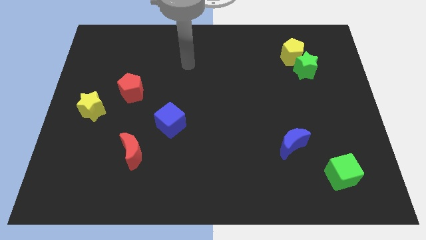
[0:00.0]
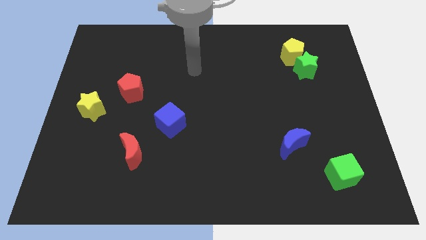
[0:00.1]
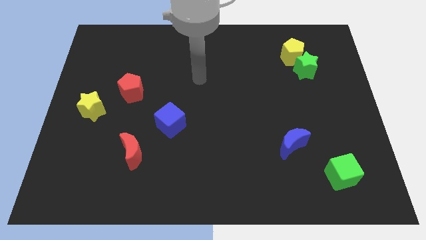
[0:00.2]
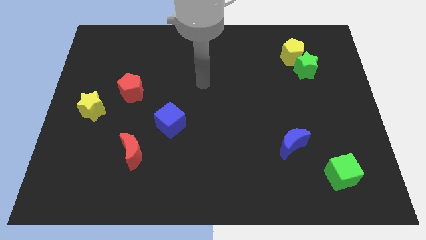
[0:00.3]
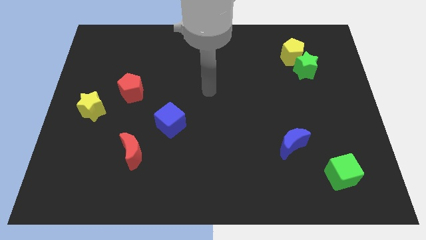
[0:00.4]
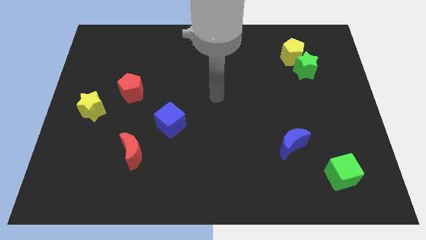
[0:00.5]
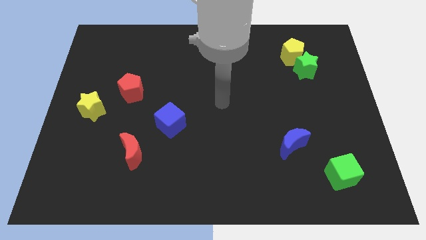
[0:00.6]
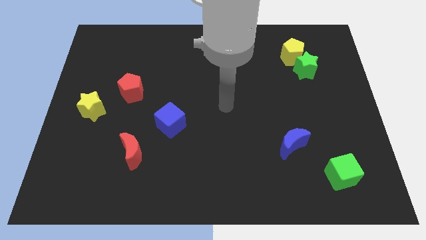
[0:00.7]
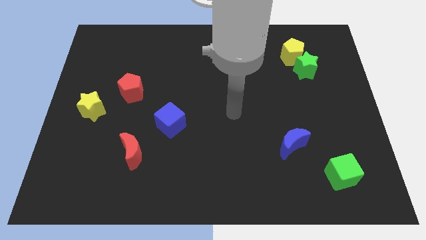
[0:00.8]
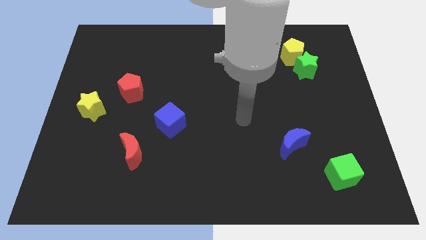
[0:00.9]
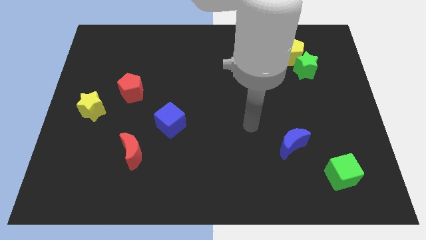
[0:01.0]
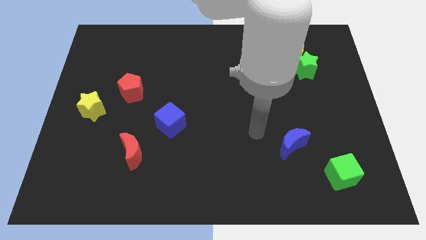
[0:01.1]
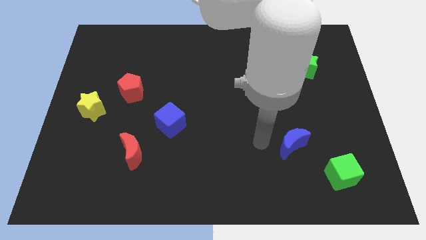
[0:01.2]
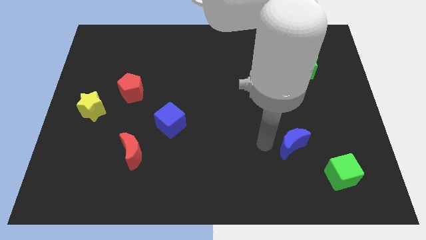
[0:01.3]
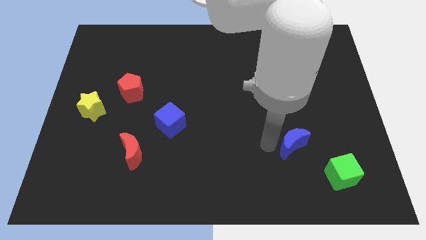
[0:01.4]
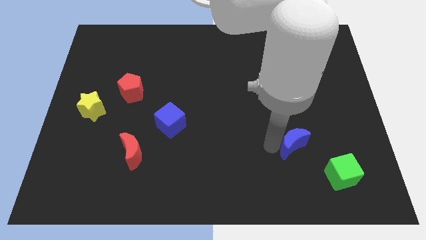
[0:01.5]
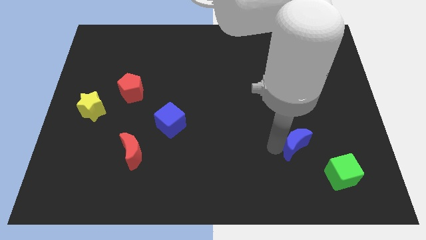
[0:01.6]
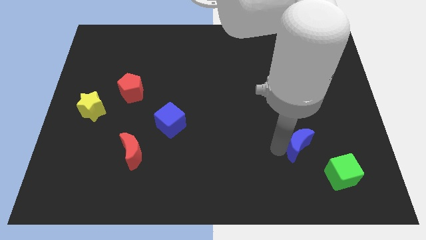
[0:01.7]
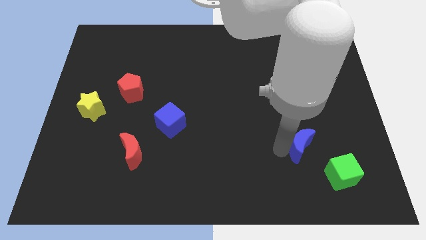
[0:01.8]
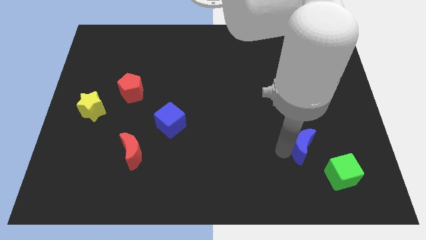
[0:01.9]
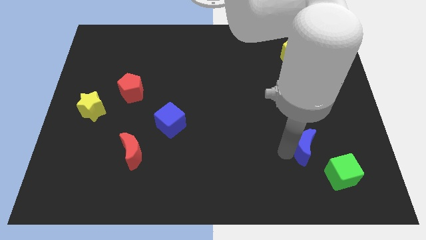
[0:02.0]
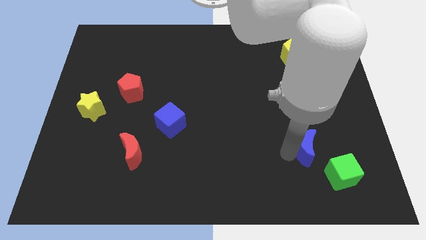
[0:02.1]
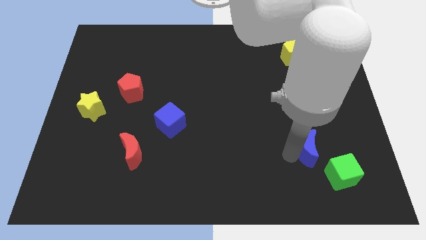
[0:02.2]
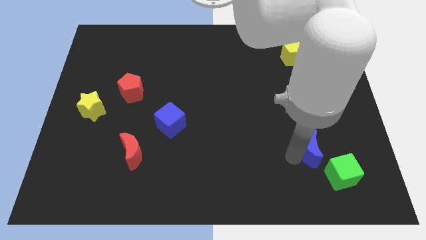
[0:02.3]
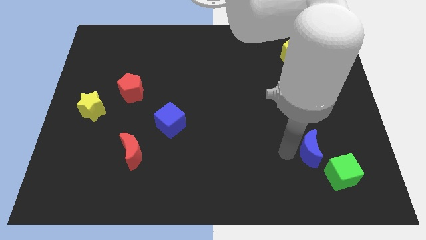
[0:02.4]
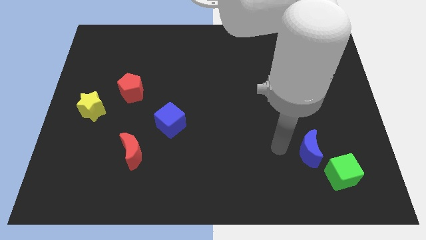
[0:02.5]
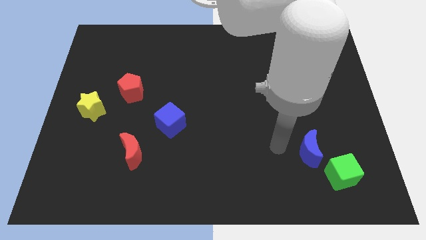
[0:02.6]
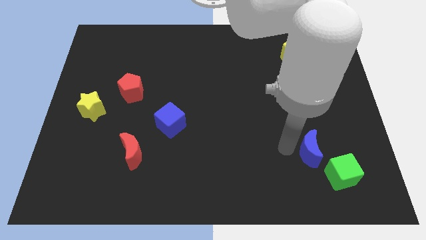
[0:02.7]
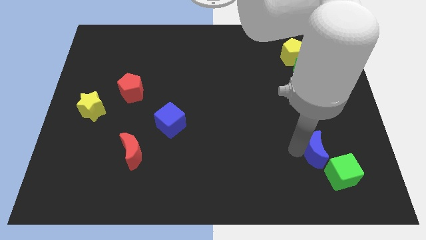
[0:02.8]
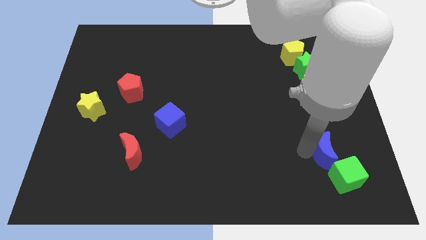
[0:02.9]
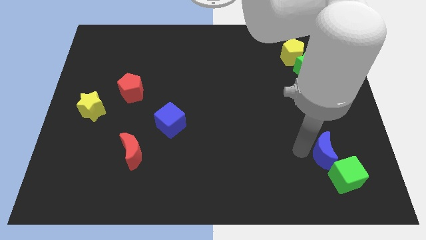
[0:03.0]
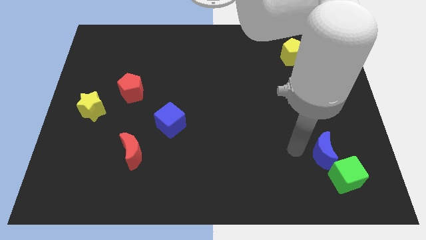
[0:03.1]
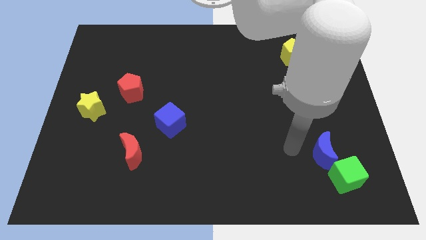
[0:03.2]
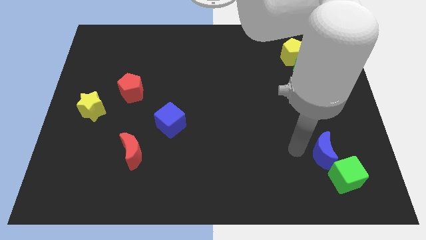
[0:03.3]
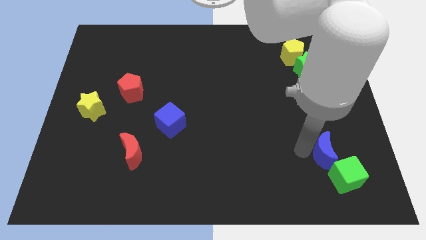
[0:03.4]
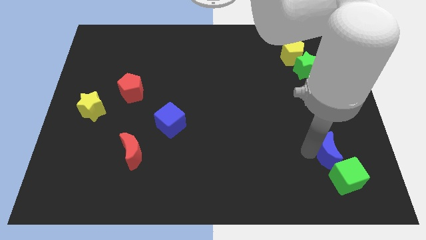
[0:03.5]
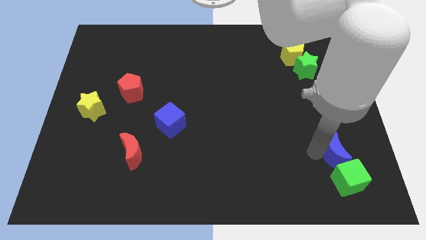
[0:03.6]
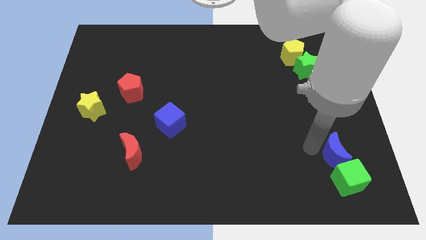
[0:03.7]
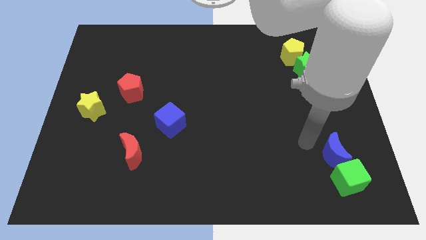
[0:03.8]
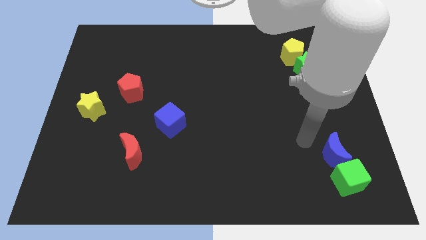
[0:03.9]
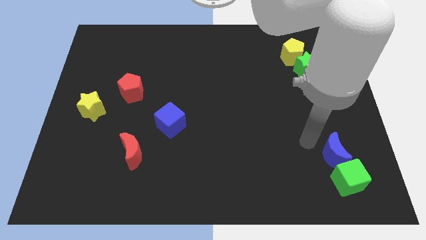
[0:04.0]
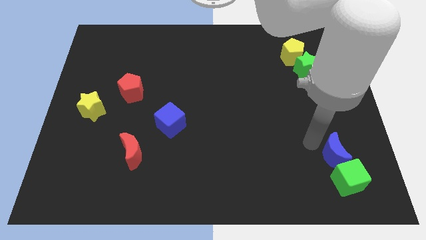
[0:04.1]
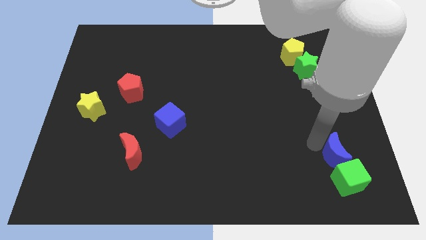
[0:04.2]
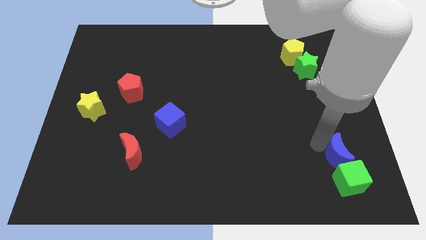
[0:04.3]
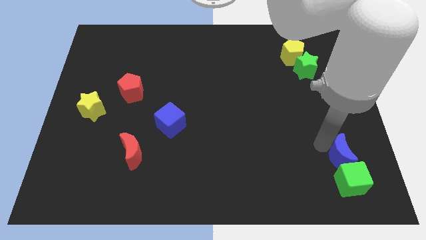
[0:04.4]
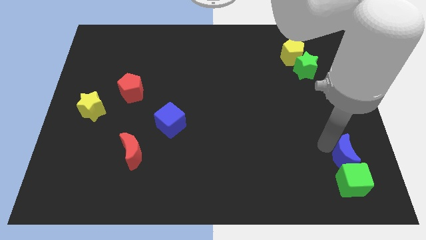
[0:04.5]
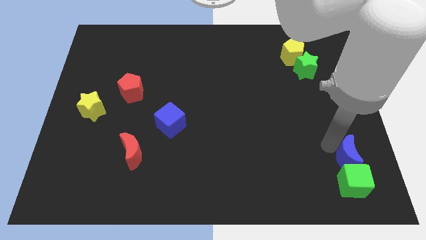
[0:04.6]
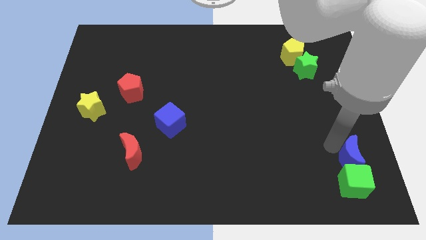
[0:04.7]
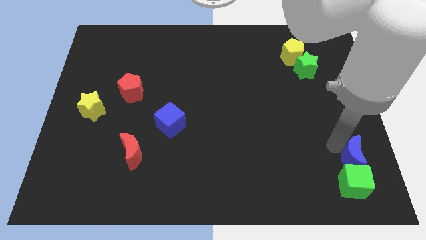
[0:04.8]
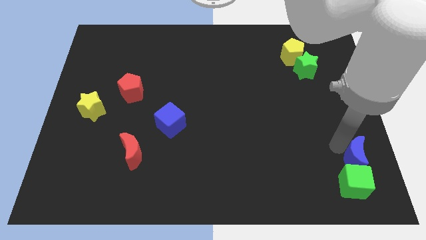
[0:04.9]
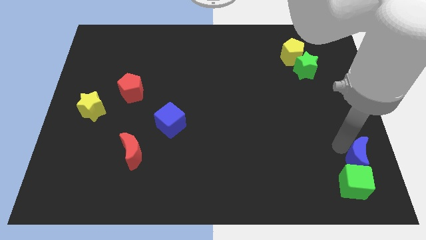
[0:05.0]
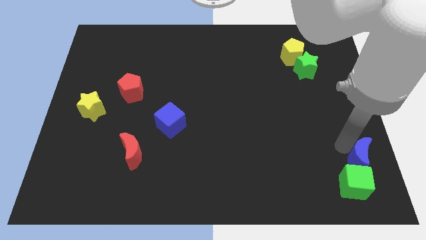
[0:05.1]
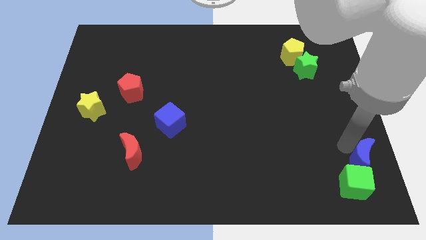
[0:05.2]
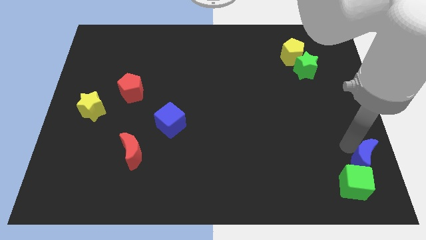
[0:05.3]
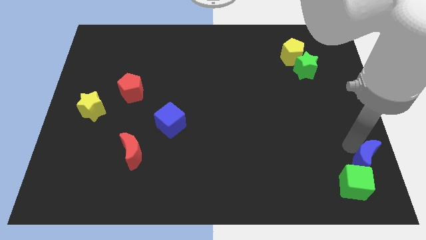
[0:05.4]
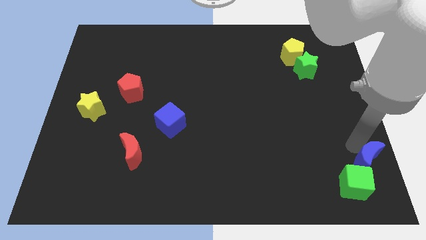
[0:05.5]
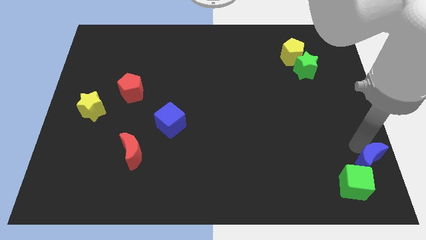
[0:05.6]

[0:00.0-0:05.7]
move the blue moon to the lower right corner

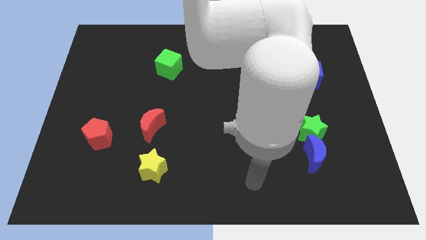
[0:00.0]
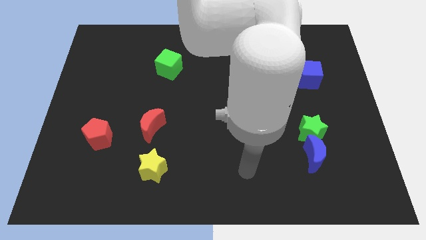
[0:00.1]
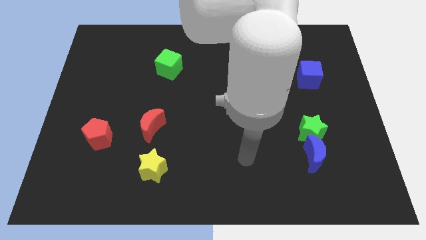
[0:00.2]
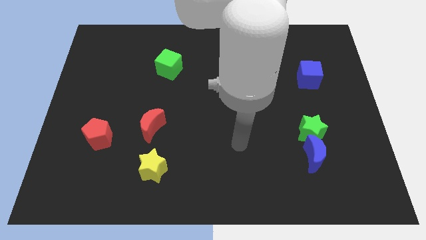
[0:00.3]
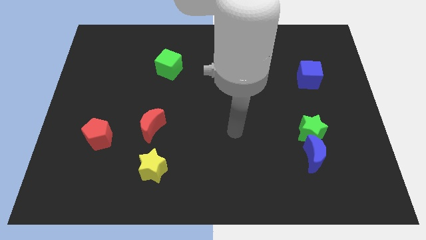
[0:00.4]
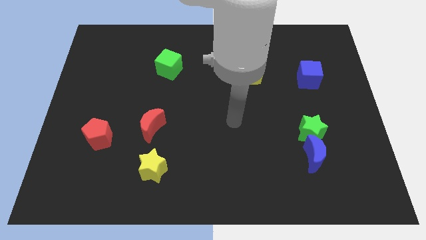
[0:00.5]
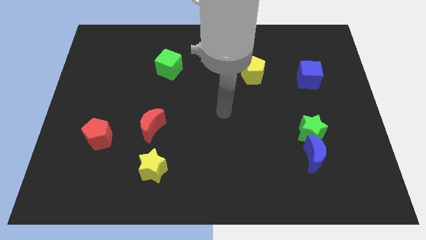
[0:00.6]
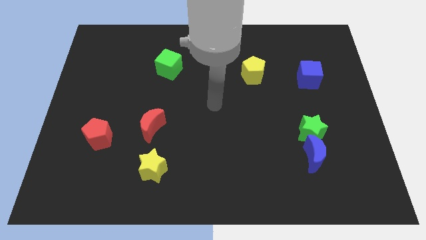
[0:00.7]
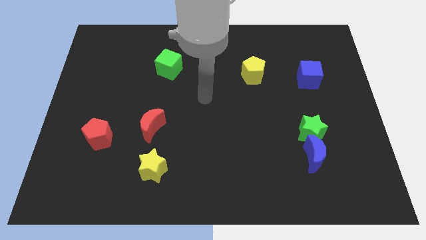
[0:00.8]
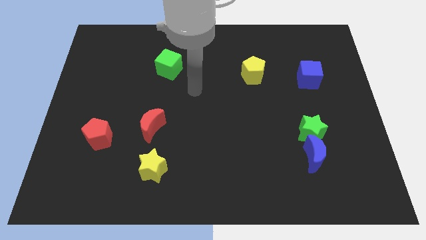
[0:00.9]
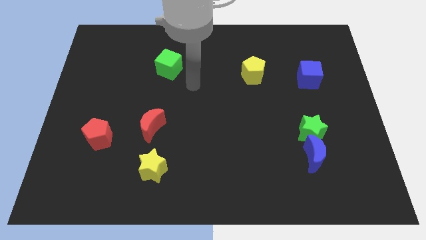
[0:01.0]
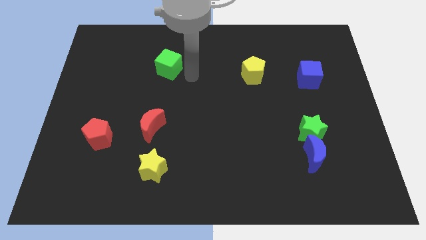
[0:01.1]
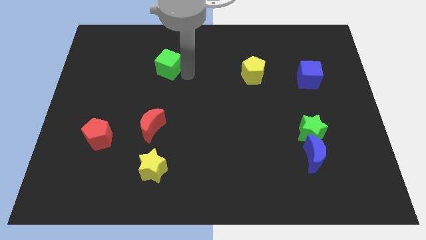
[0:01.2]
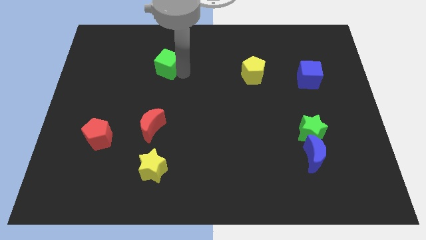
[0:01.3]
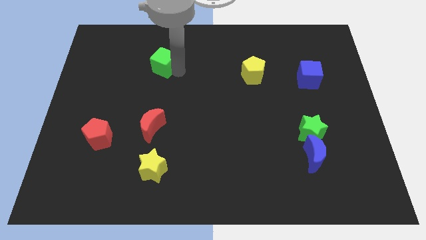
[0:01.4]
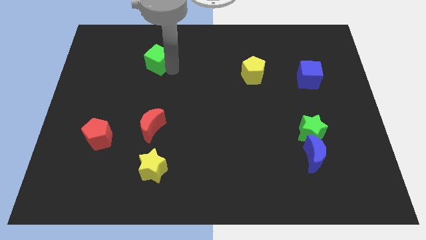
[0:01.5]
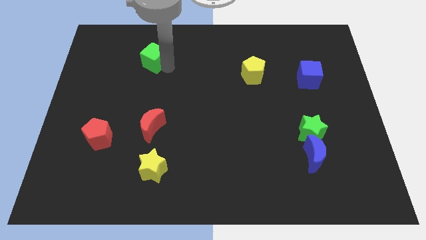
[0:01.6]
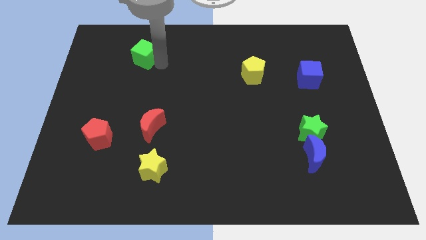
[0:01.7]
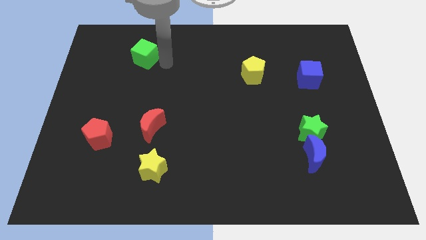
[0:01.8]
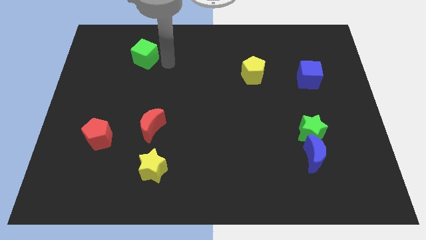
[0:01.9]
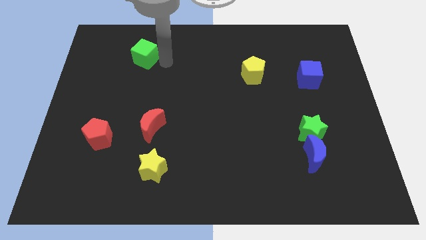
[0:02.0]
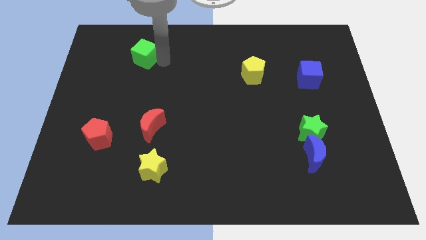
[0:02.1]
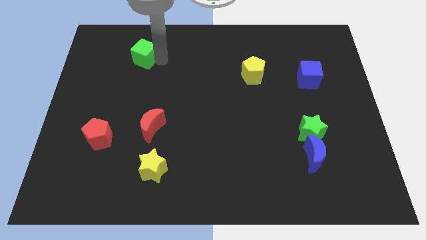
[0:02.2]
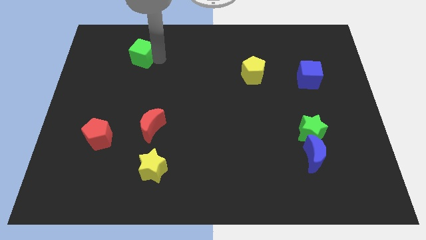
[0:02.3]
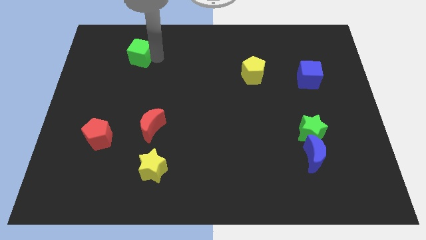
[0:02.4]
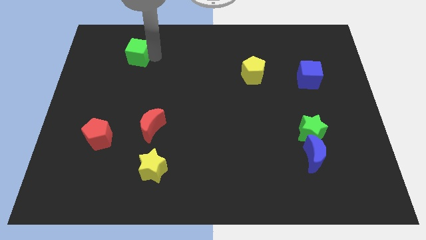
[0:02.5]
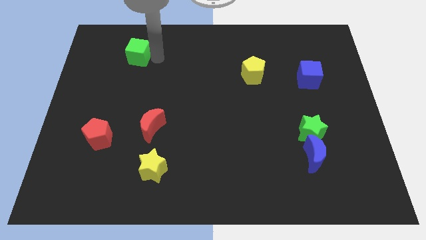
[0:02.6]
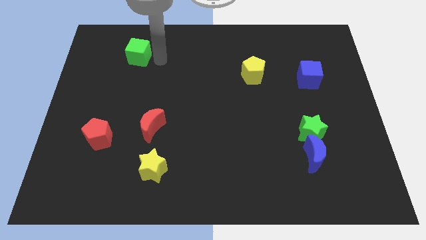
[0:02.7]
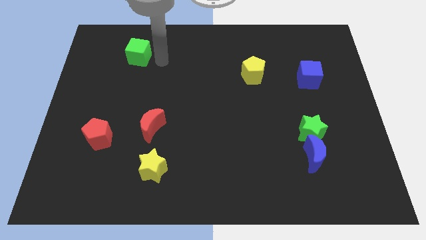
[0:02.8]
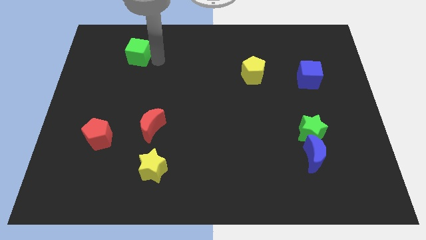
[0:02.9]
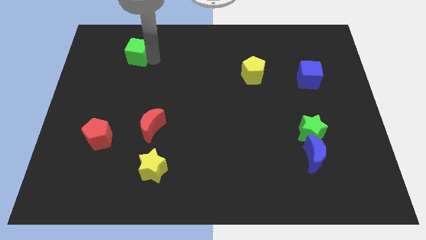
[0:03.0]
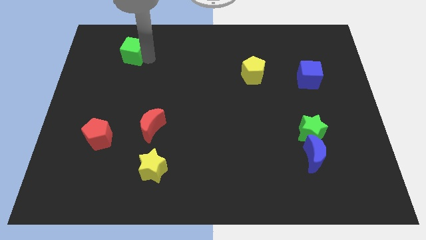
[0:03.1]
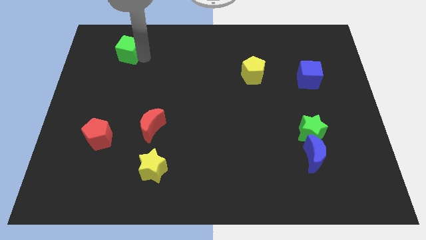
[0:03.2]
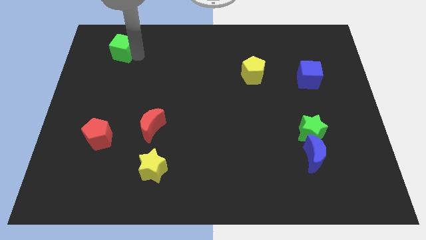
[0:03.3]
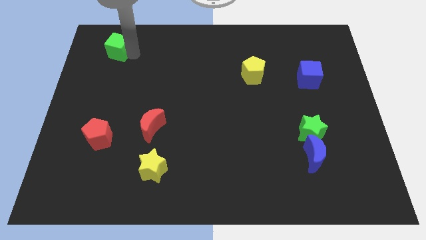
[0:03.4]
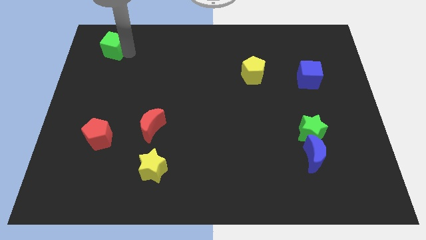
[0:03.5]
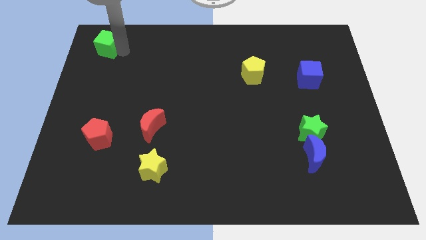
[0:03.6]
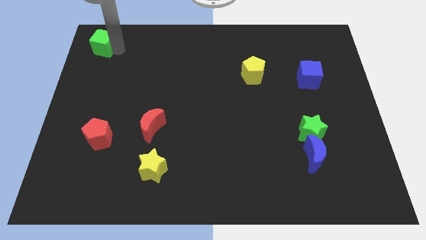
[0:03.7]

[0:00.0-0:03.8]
move the green cube to the upper left corner
